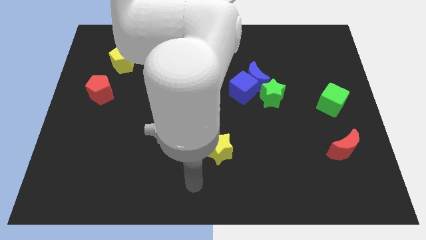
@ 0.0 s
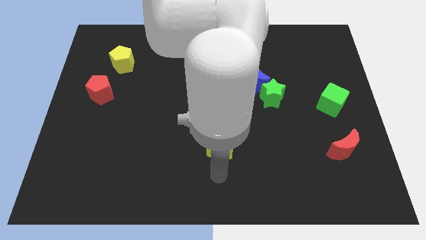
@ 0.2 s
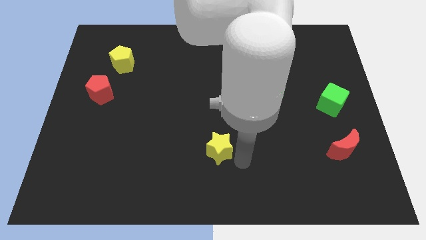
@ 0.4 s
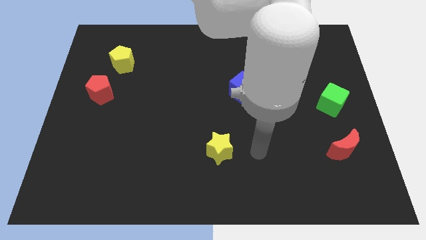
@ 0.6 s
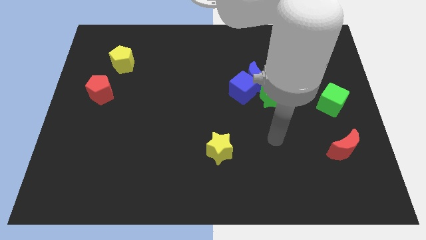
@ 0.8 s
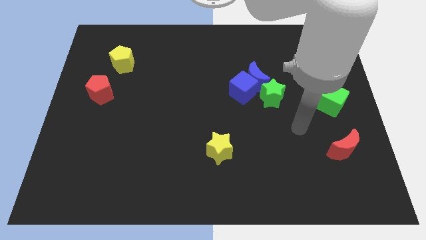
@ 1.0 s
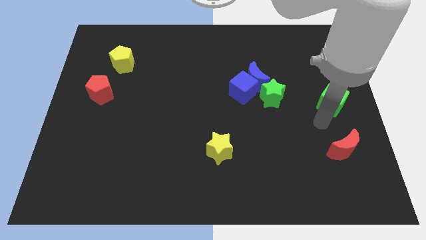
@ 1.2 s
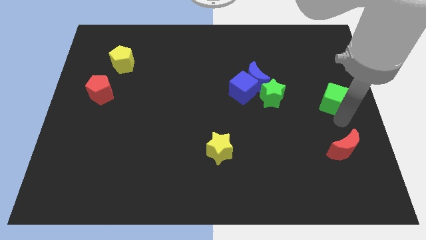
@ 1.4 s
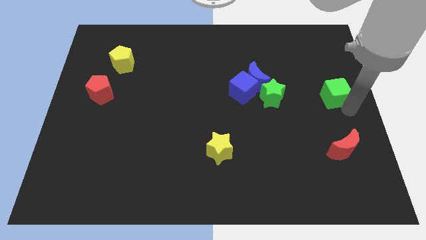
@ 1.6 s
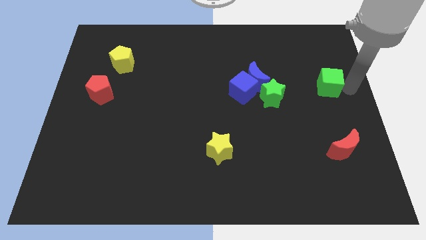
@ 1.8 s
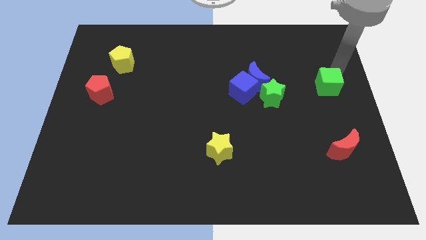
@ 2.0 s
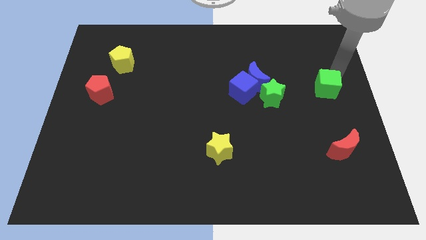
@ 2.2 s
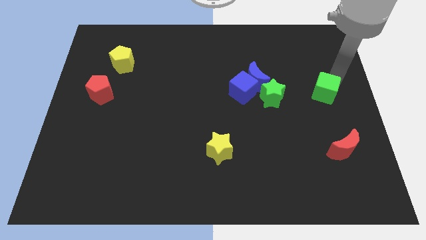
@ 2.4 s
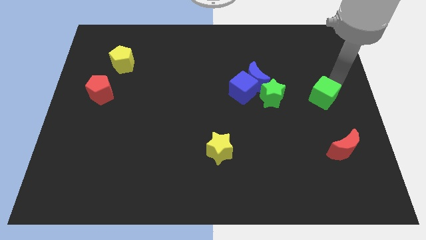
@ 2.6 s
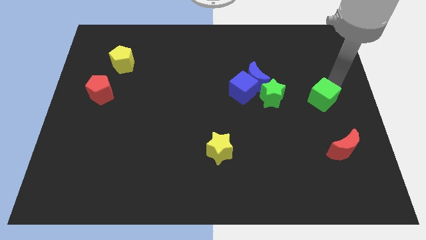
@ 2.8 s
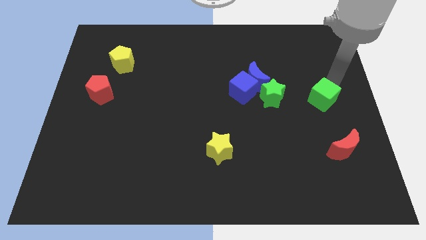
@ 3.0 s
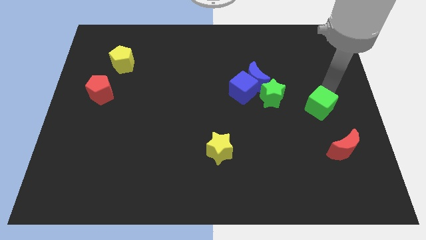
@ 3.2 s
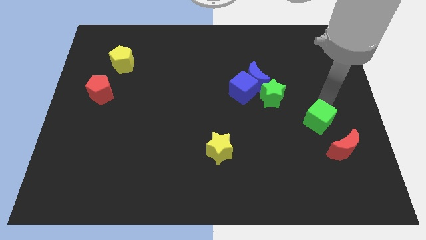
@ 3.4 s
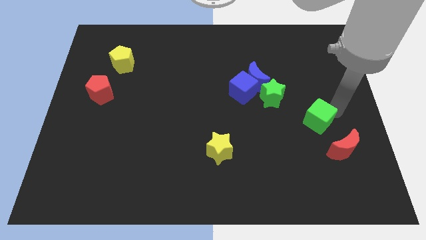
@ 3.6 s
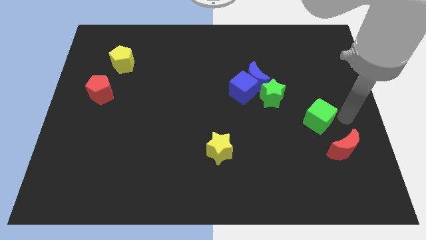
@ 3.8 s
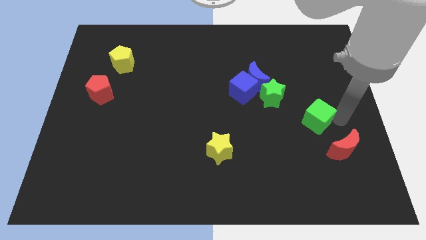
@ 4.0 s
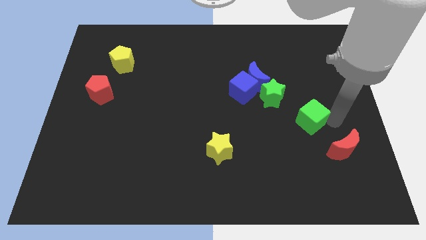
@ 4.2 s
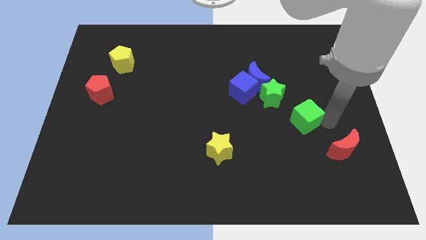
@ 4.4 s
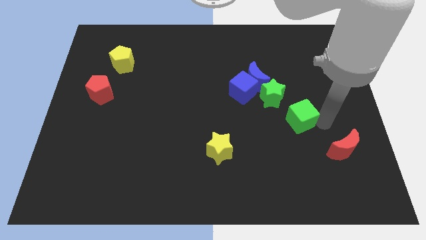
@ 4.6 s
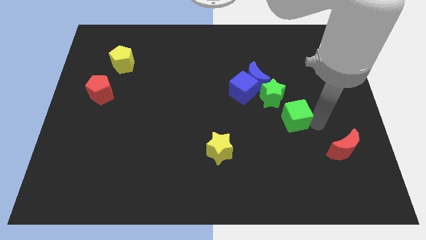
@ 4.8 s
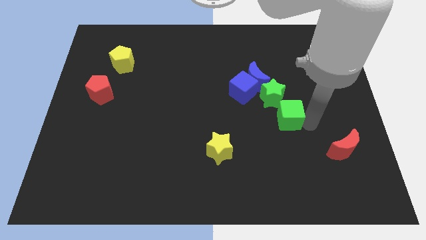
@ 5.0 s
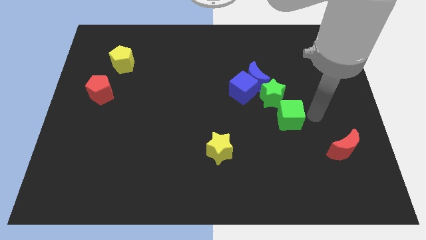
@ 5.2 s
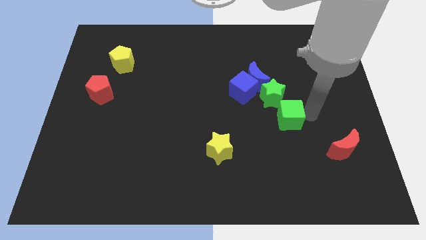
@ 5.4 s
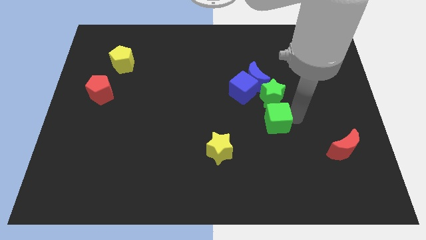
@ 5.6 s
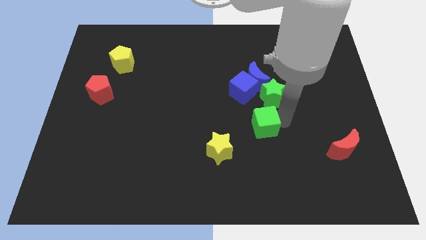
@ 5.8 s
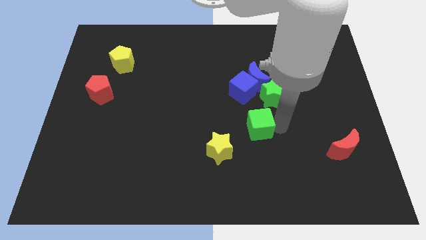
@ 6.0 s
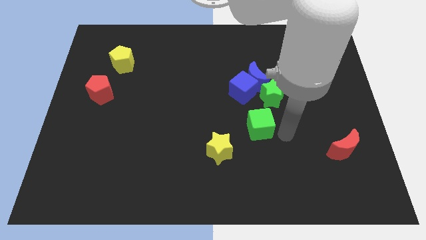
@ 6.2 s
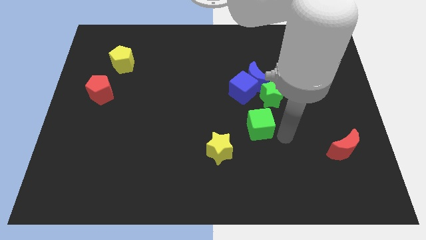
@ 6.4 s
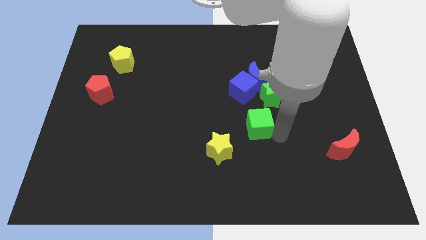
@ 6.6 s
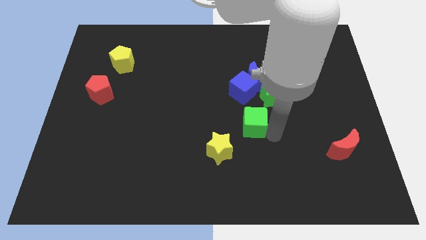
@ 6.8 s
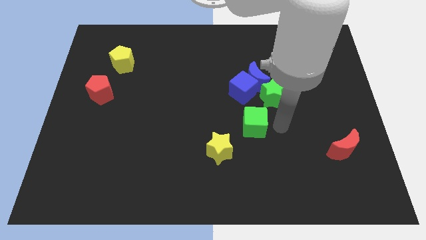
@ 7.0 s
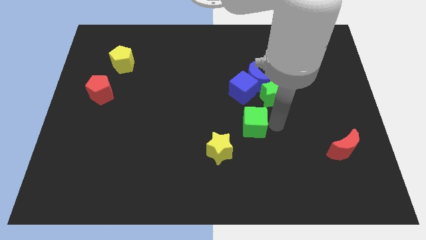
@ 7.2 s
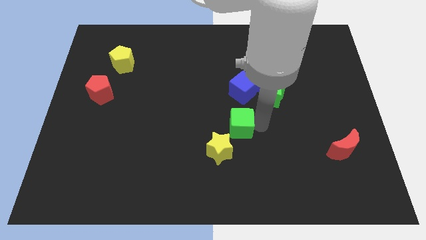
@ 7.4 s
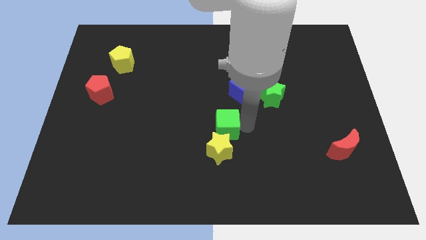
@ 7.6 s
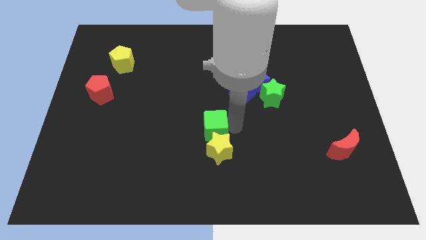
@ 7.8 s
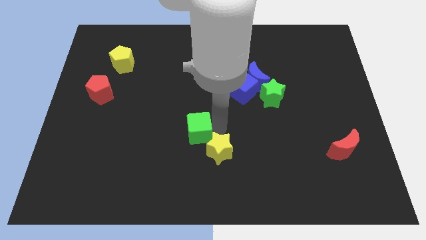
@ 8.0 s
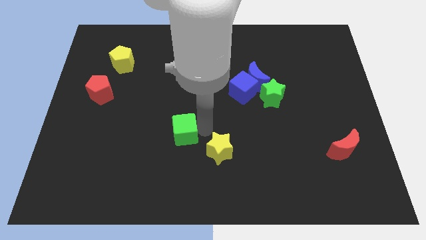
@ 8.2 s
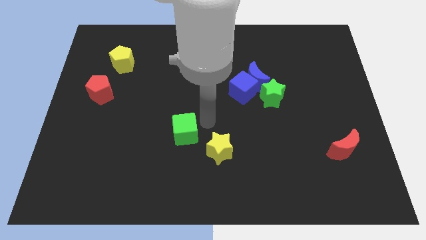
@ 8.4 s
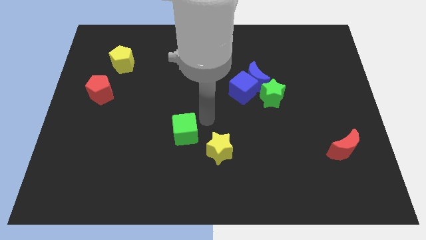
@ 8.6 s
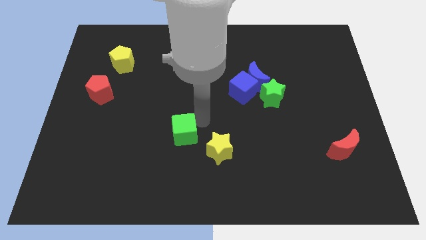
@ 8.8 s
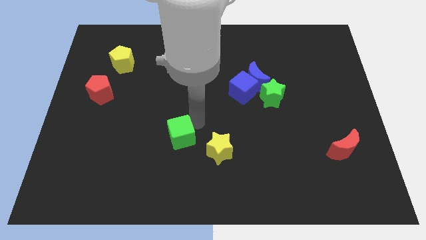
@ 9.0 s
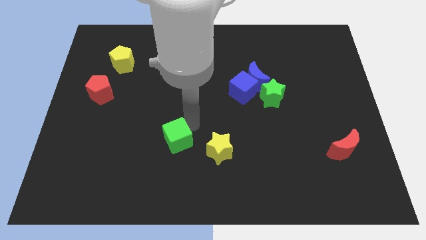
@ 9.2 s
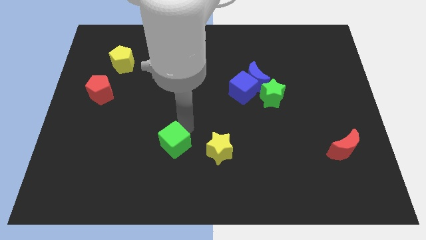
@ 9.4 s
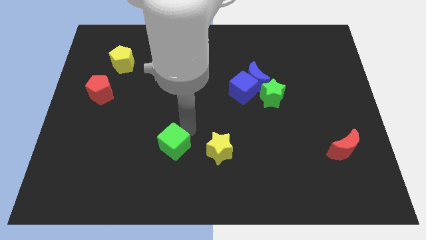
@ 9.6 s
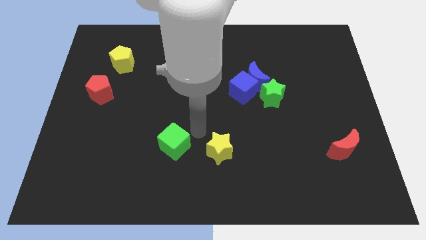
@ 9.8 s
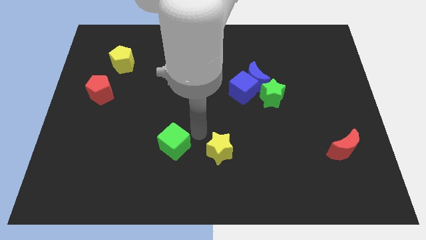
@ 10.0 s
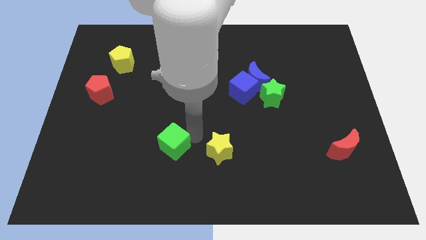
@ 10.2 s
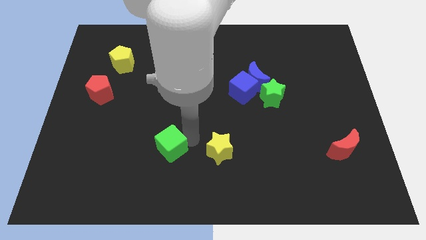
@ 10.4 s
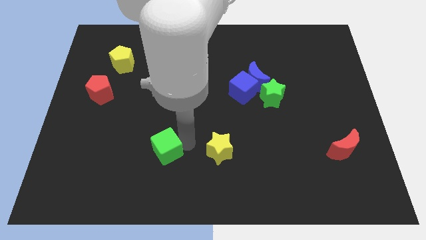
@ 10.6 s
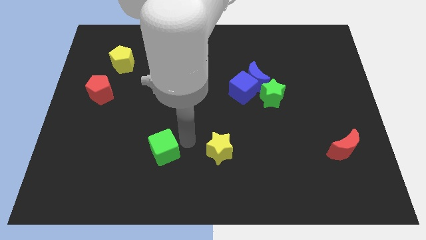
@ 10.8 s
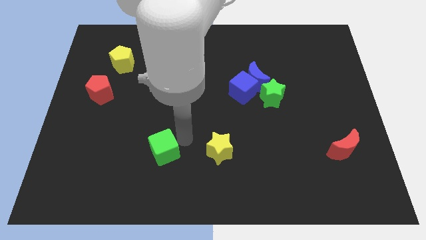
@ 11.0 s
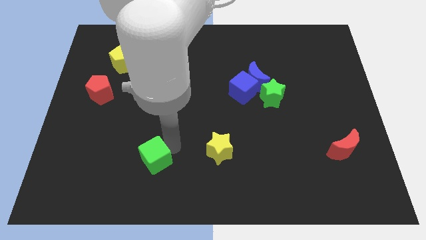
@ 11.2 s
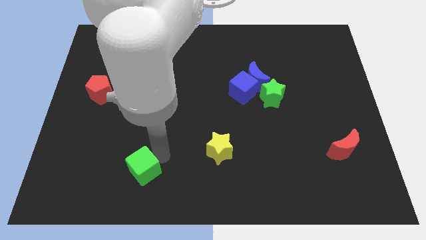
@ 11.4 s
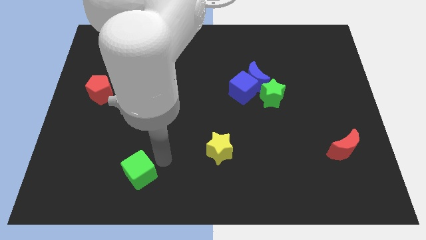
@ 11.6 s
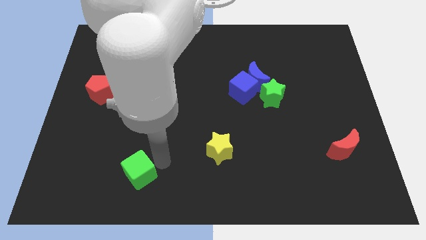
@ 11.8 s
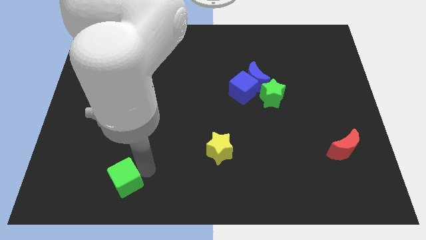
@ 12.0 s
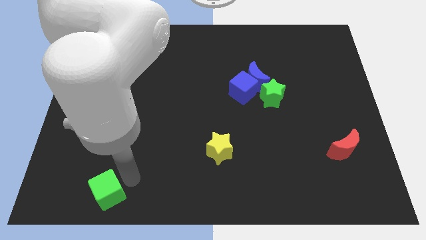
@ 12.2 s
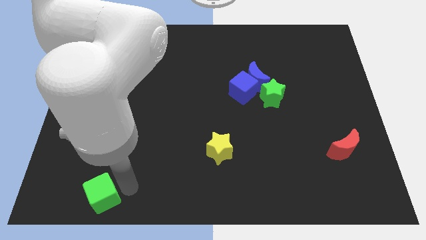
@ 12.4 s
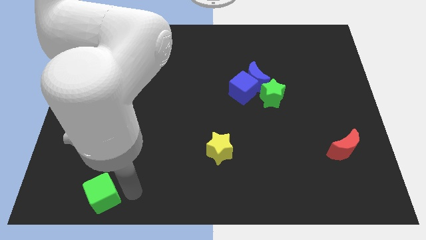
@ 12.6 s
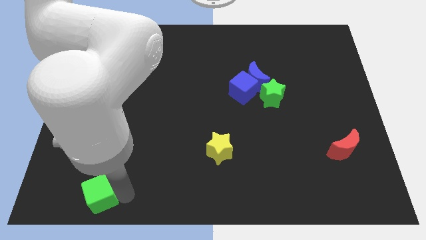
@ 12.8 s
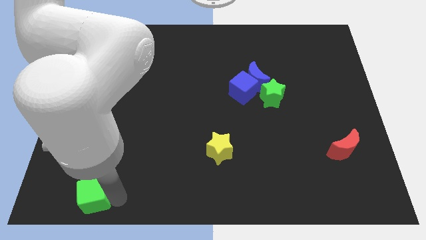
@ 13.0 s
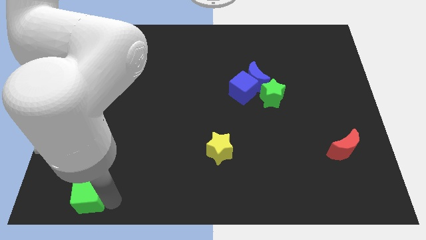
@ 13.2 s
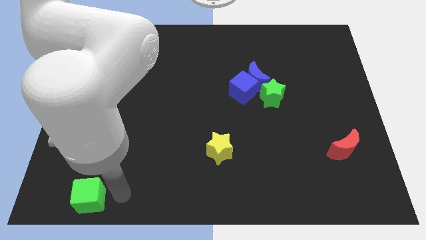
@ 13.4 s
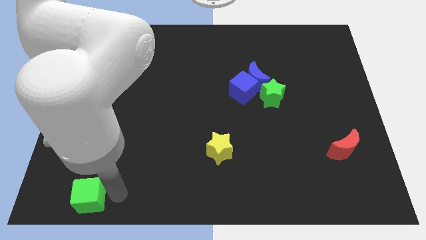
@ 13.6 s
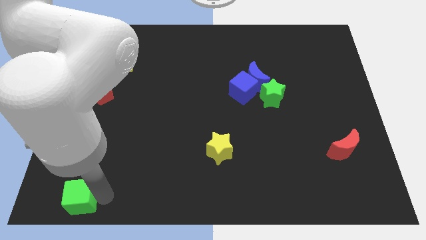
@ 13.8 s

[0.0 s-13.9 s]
put the green cube to the lower left corner
